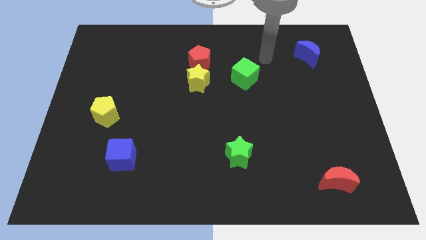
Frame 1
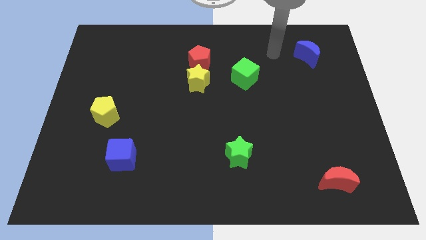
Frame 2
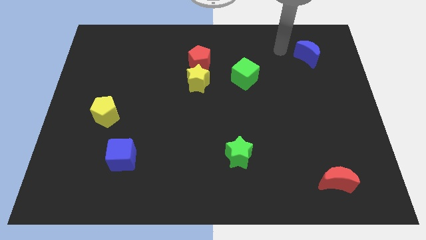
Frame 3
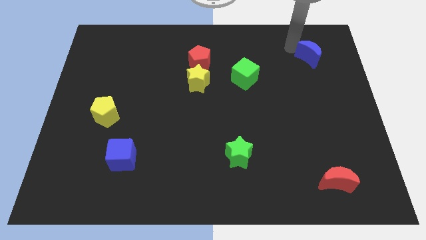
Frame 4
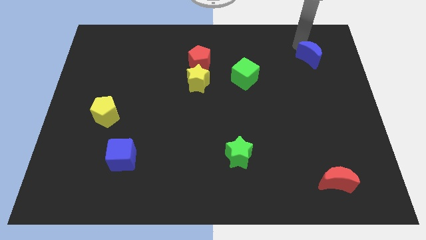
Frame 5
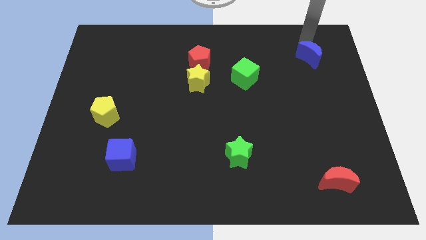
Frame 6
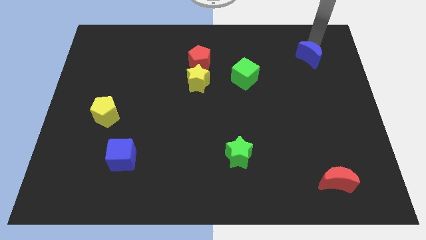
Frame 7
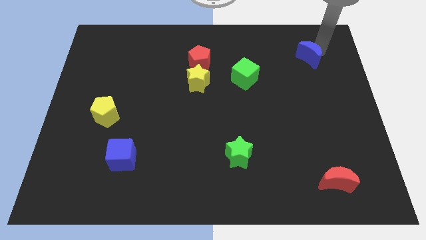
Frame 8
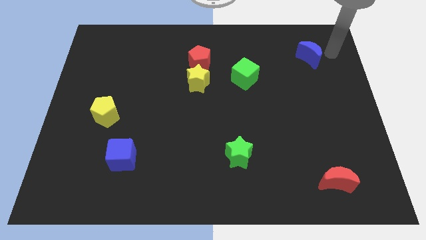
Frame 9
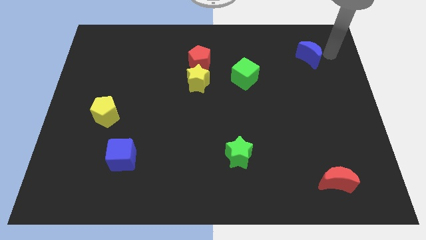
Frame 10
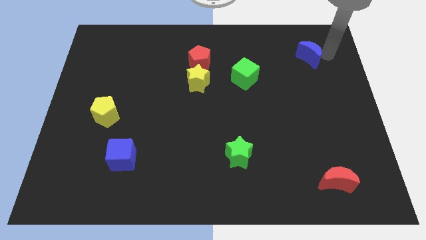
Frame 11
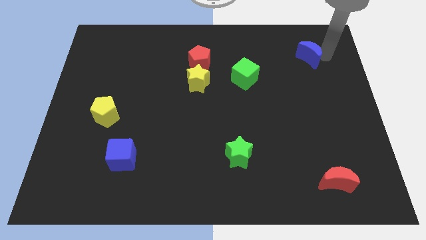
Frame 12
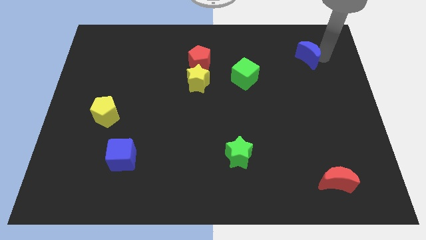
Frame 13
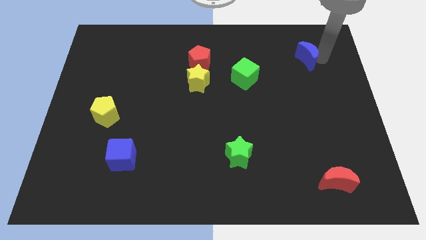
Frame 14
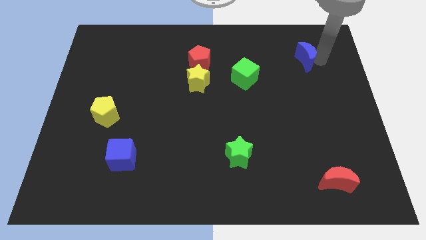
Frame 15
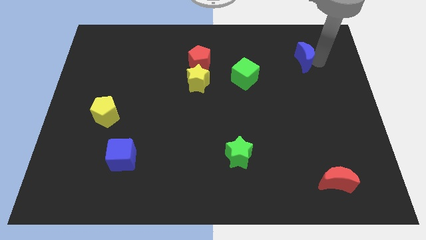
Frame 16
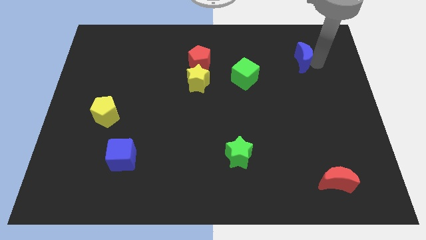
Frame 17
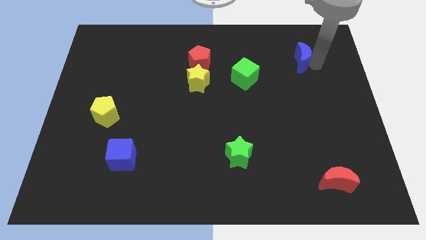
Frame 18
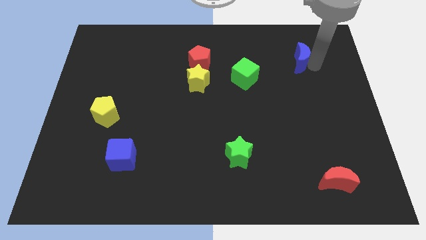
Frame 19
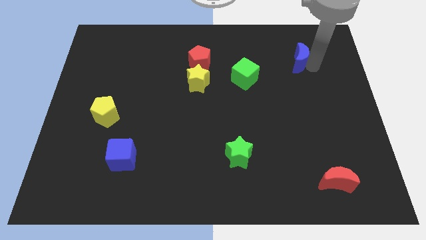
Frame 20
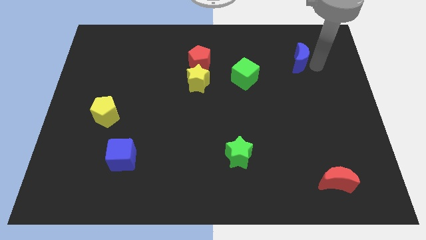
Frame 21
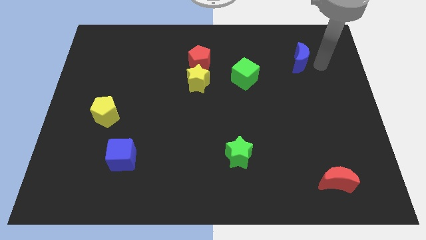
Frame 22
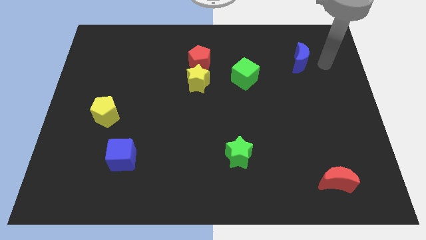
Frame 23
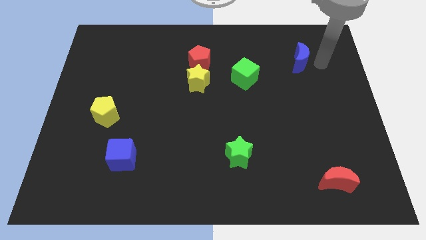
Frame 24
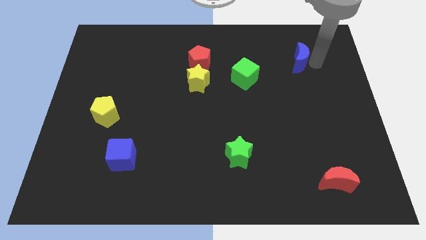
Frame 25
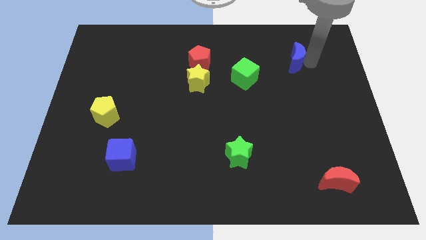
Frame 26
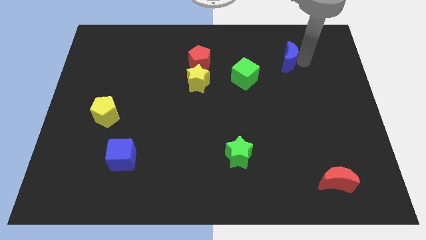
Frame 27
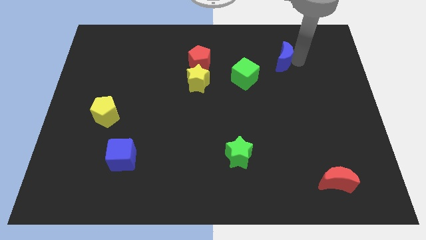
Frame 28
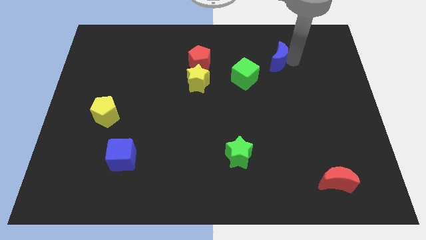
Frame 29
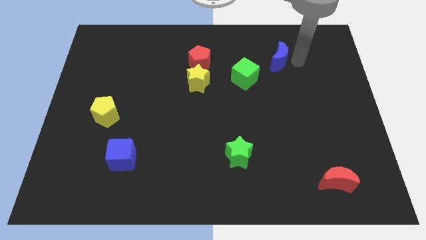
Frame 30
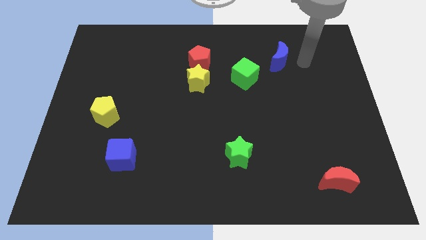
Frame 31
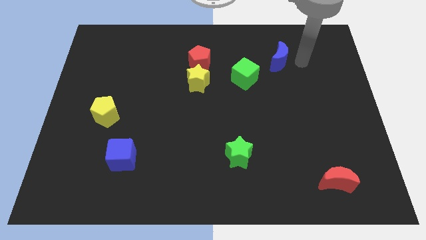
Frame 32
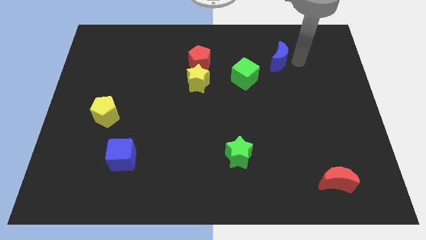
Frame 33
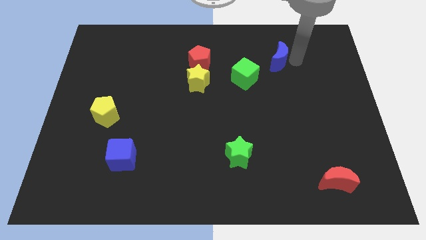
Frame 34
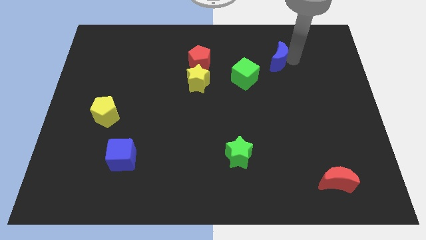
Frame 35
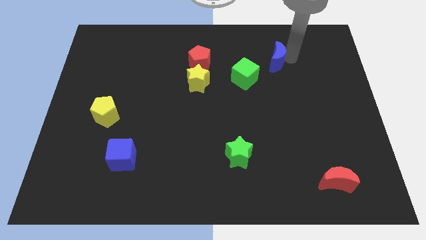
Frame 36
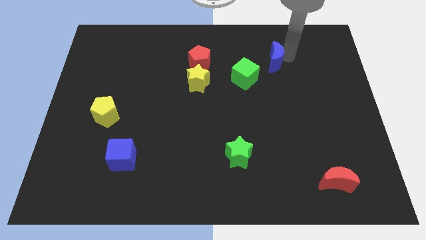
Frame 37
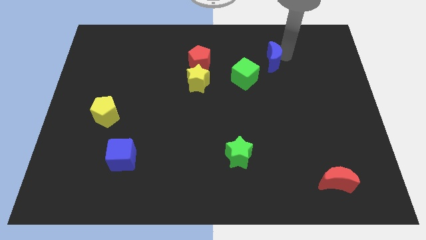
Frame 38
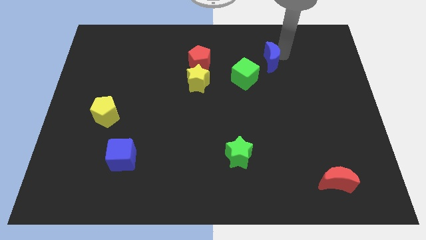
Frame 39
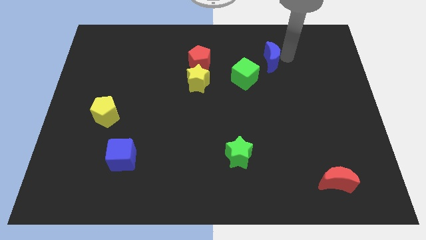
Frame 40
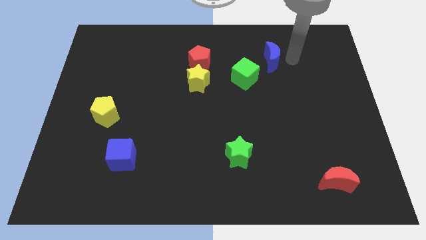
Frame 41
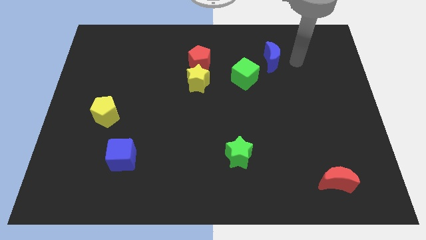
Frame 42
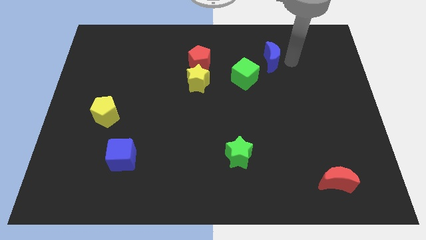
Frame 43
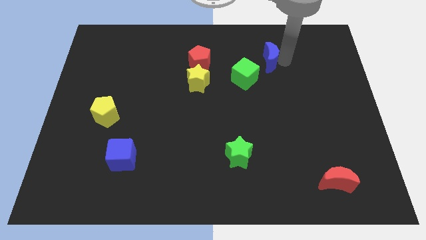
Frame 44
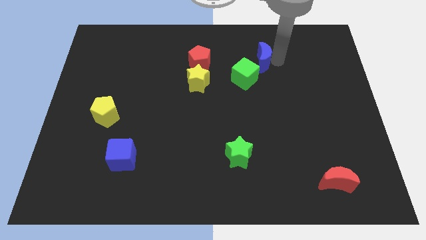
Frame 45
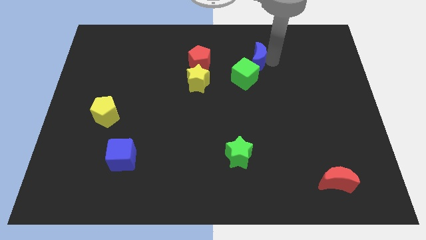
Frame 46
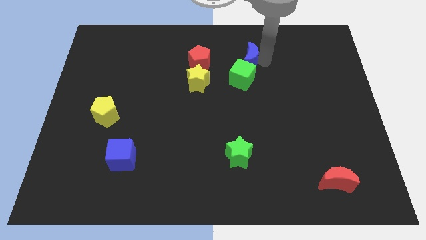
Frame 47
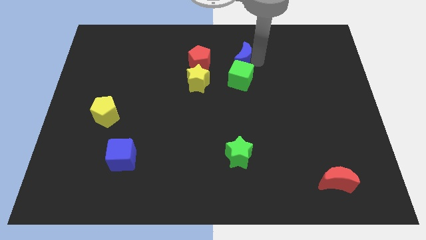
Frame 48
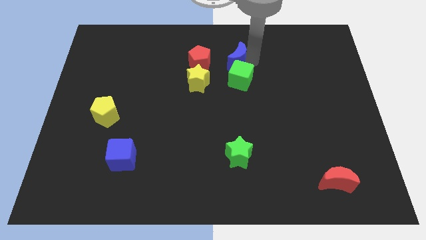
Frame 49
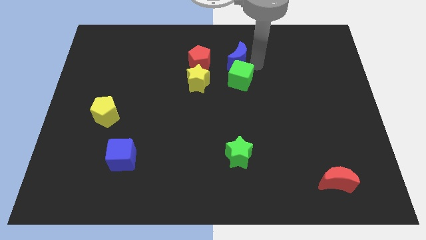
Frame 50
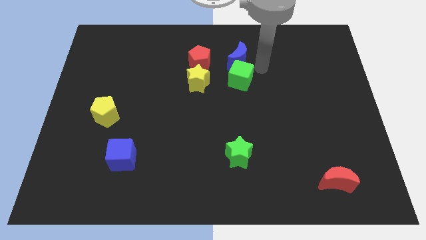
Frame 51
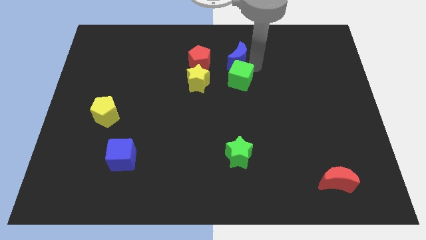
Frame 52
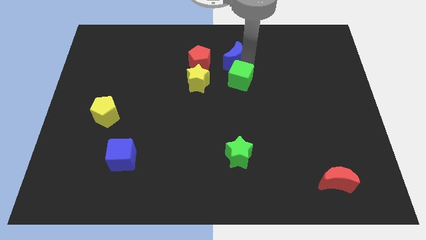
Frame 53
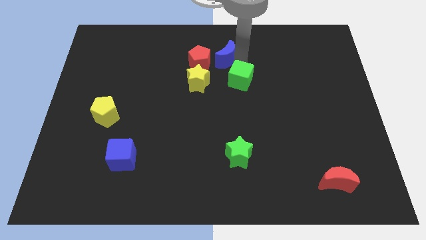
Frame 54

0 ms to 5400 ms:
slide the blue moon left

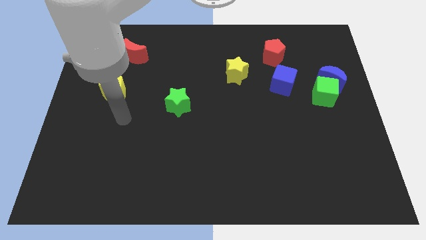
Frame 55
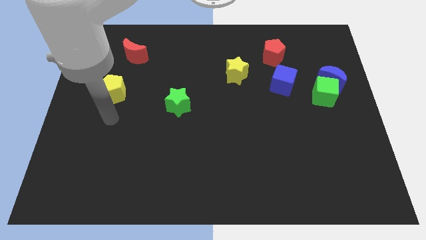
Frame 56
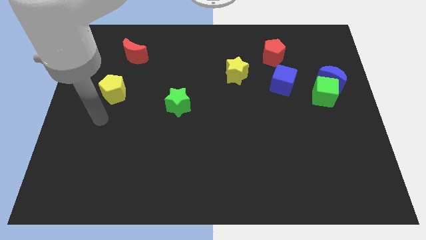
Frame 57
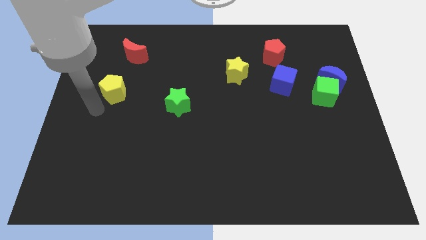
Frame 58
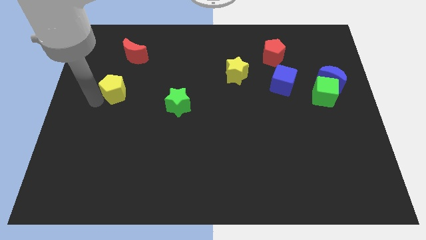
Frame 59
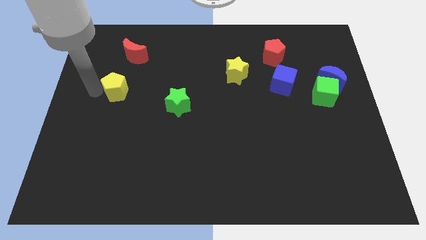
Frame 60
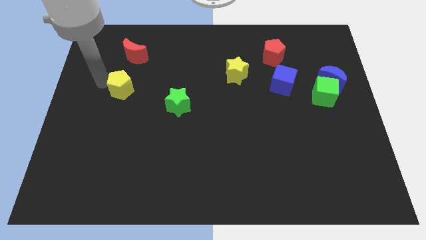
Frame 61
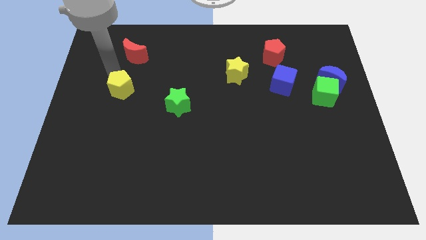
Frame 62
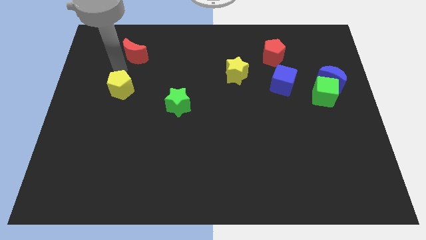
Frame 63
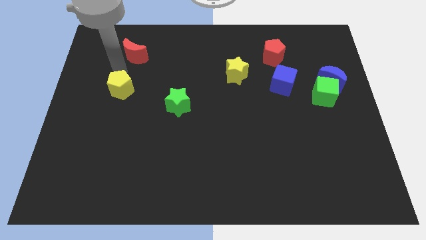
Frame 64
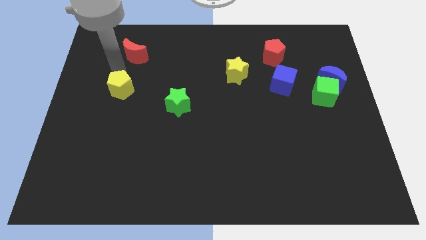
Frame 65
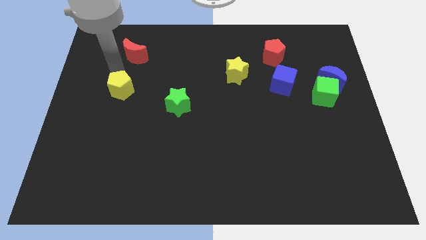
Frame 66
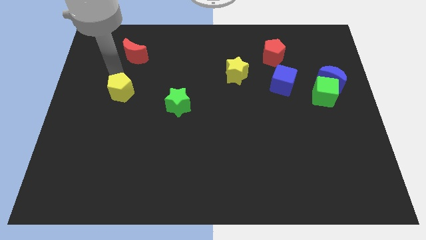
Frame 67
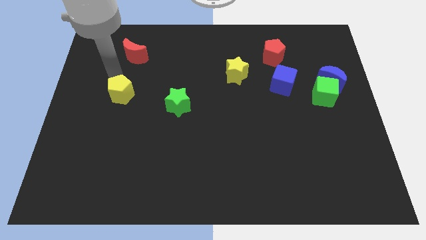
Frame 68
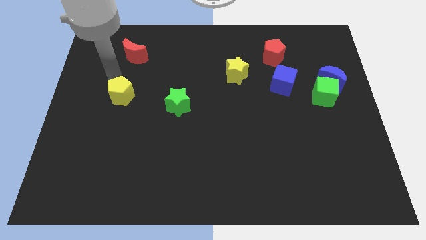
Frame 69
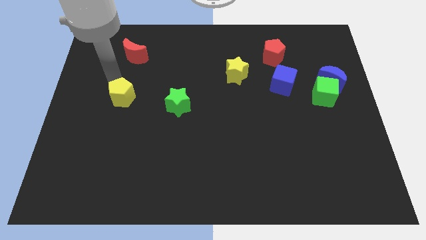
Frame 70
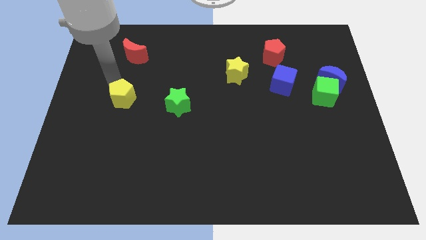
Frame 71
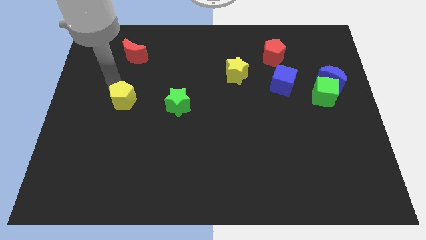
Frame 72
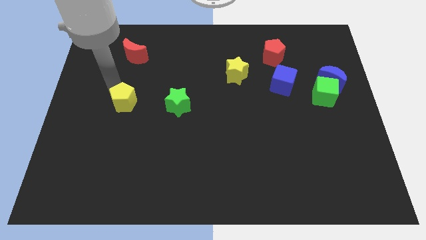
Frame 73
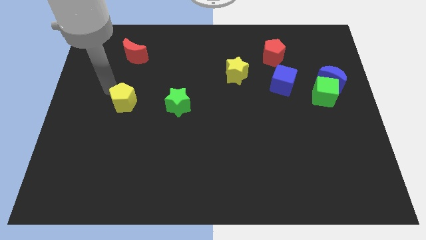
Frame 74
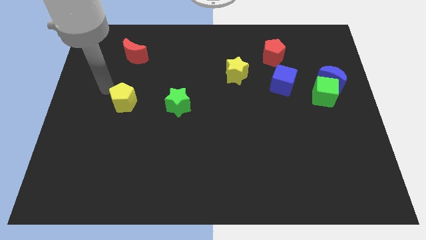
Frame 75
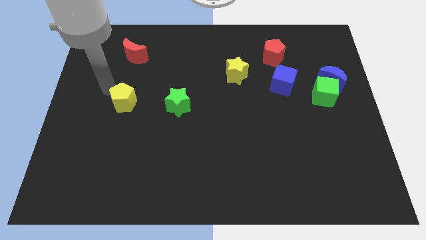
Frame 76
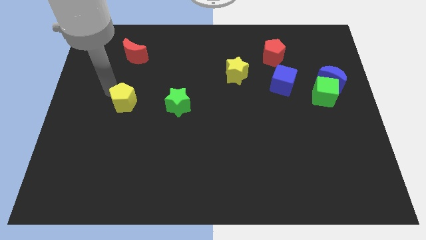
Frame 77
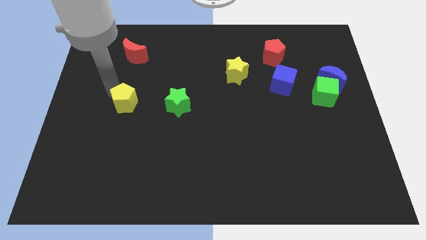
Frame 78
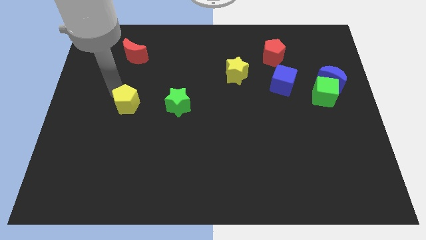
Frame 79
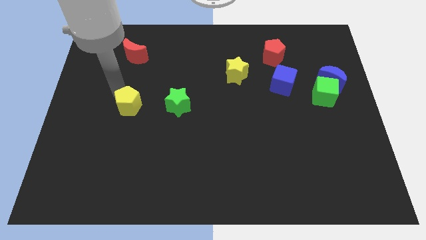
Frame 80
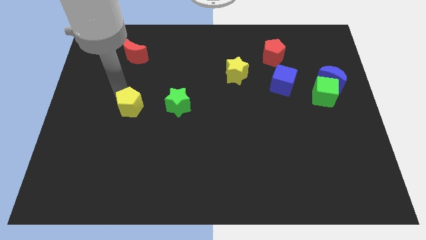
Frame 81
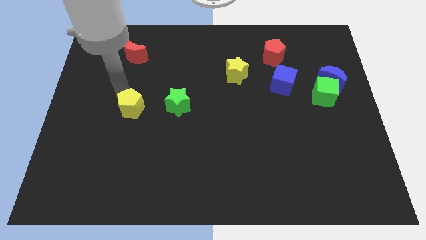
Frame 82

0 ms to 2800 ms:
slide the yellow pentagon a little diagonally down and right
